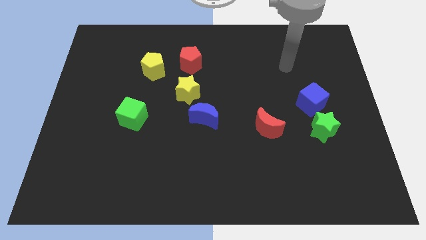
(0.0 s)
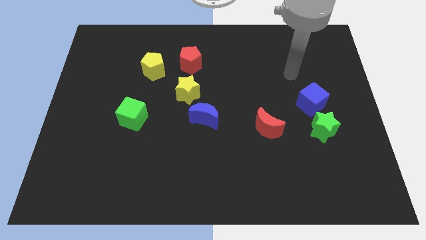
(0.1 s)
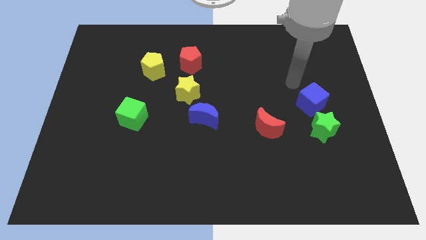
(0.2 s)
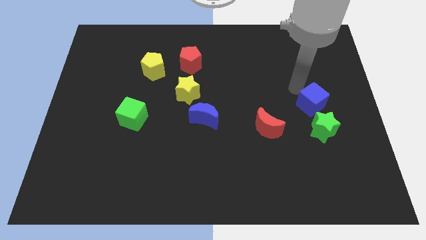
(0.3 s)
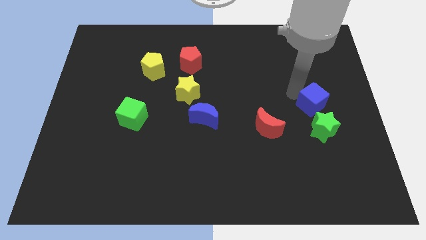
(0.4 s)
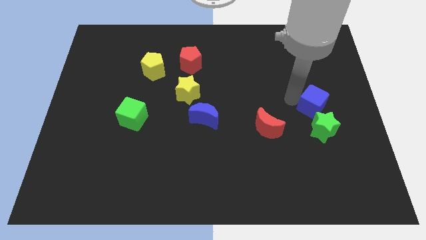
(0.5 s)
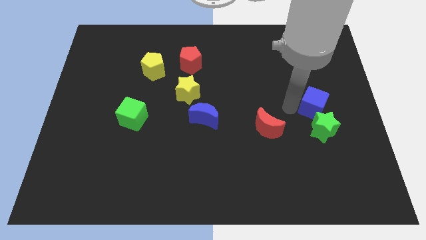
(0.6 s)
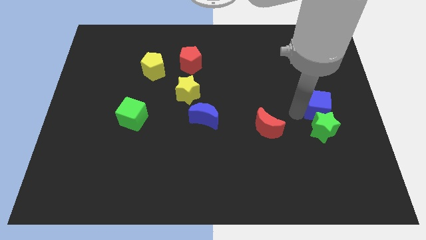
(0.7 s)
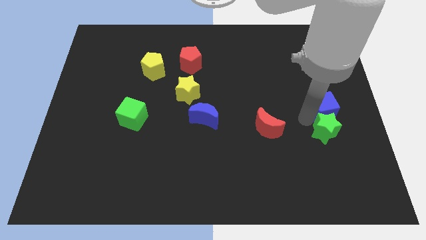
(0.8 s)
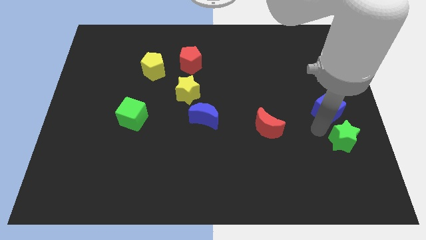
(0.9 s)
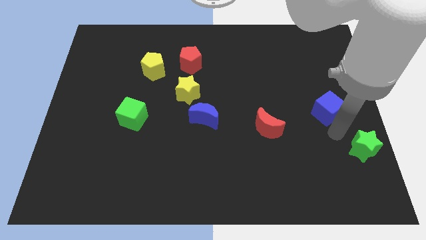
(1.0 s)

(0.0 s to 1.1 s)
separate the blue cube from the green star

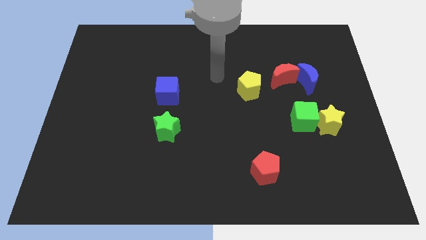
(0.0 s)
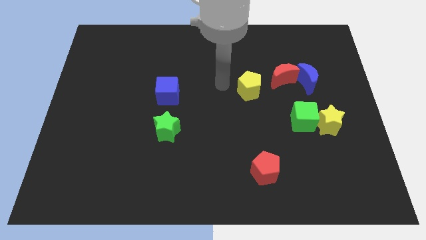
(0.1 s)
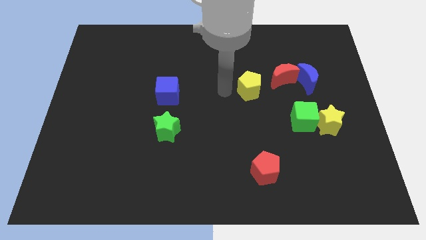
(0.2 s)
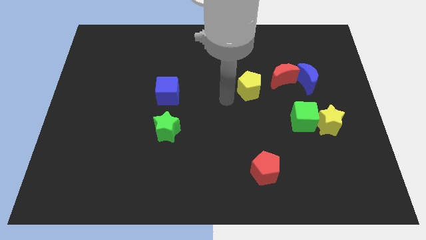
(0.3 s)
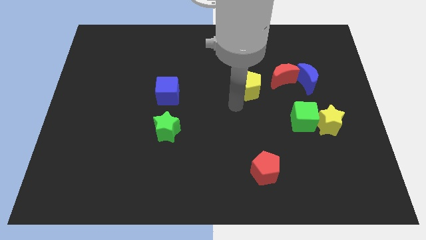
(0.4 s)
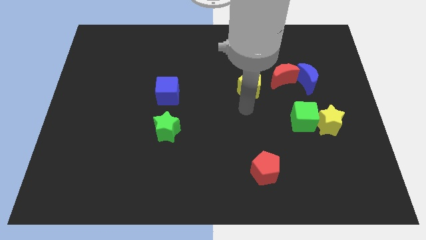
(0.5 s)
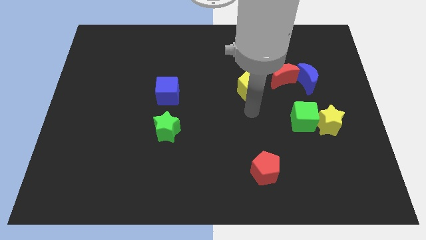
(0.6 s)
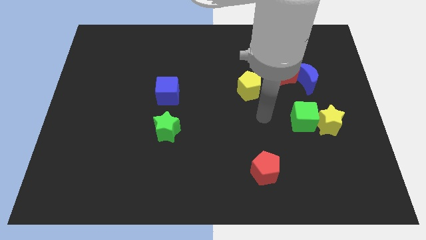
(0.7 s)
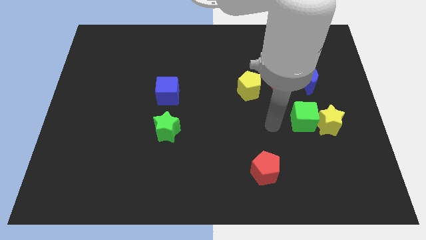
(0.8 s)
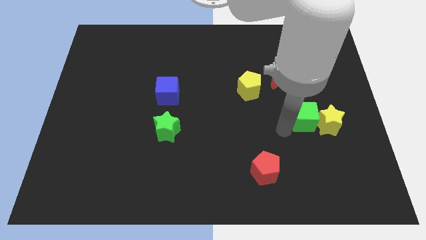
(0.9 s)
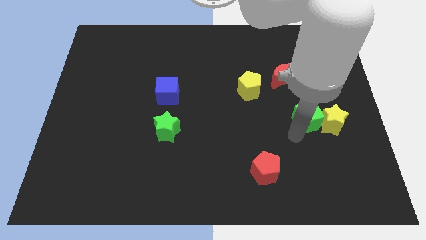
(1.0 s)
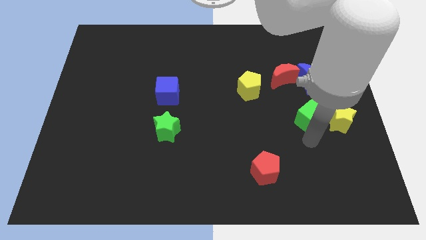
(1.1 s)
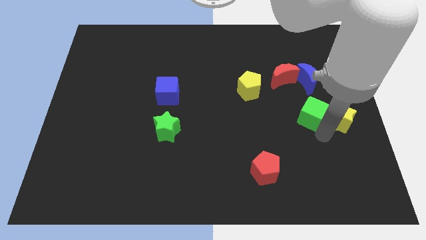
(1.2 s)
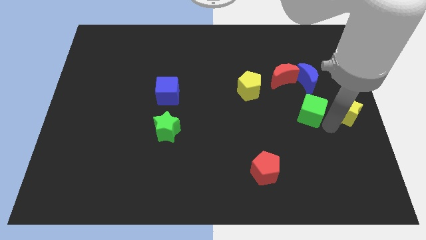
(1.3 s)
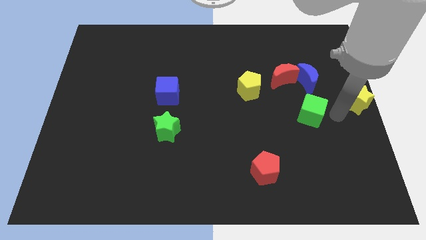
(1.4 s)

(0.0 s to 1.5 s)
move the green cube away from the yellow star

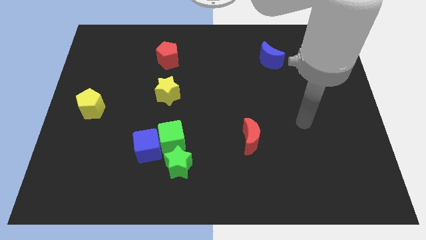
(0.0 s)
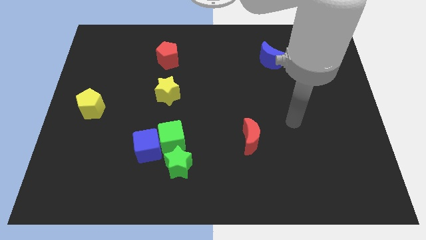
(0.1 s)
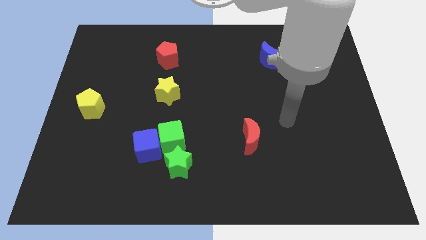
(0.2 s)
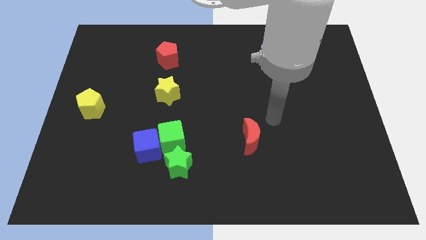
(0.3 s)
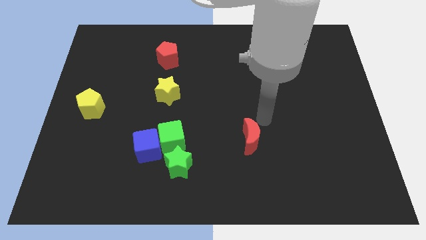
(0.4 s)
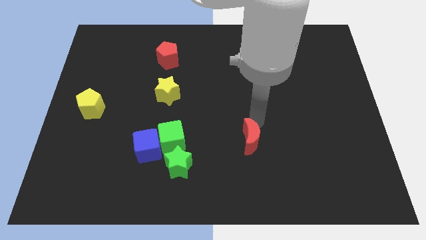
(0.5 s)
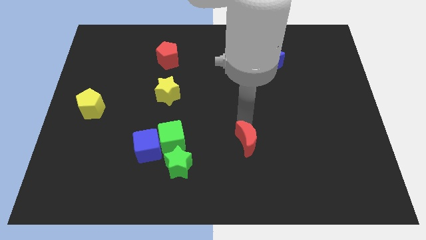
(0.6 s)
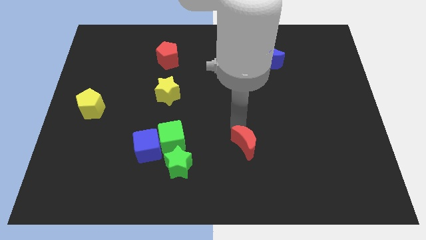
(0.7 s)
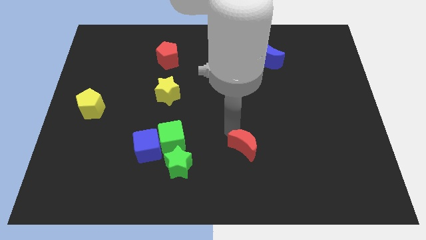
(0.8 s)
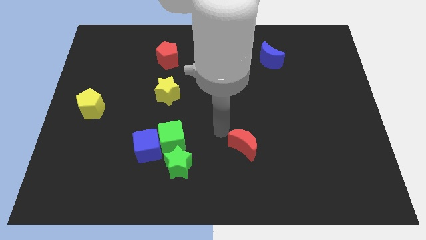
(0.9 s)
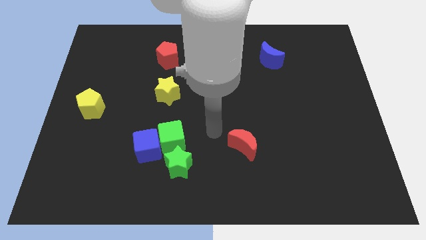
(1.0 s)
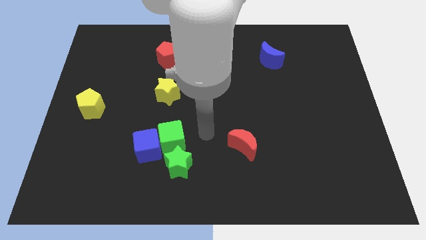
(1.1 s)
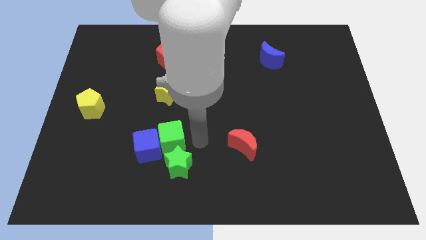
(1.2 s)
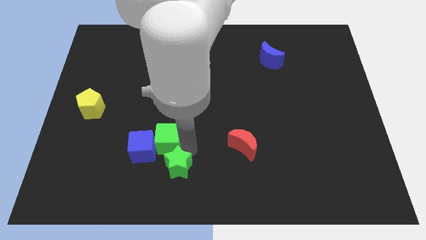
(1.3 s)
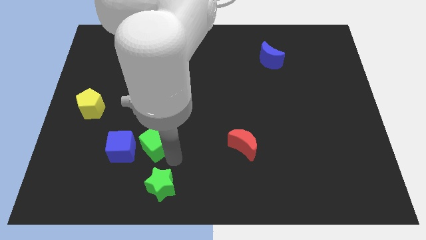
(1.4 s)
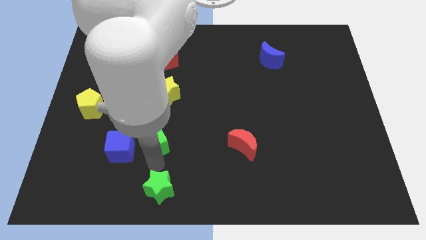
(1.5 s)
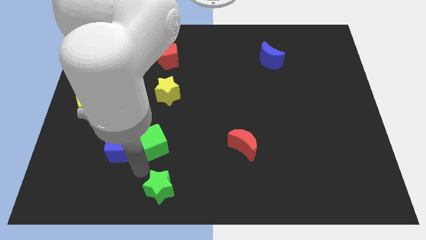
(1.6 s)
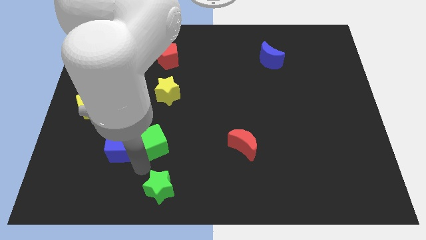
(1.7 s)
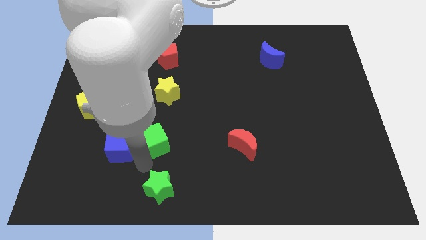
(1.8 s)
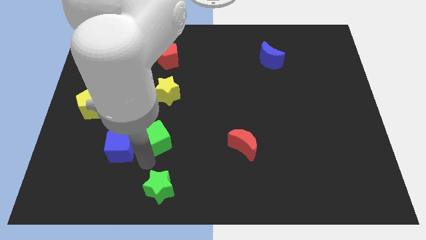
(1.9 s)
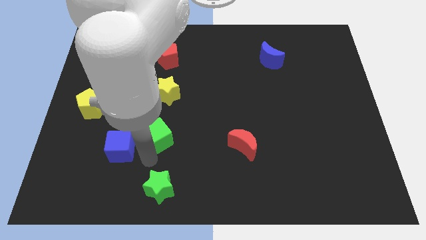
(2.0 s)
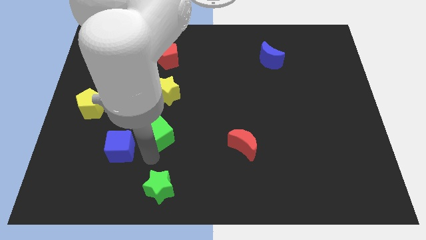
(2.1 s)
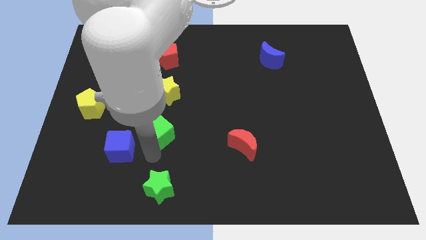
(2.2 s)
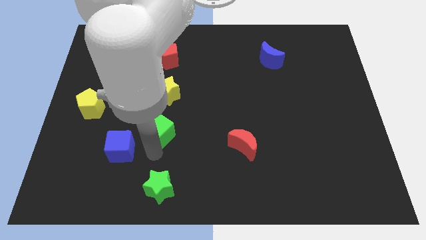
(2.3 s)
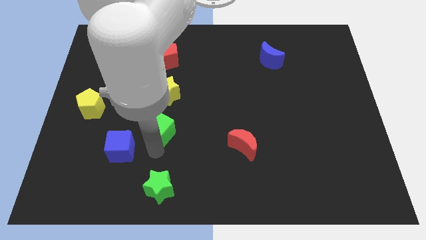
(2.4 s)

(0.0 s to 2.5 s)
pull the green cube apart from the blue cube and green star

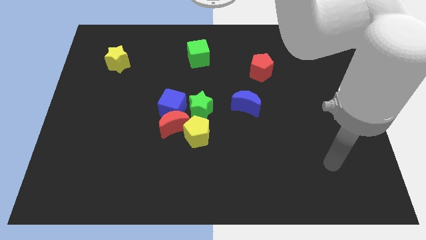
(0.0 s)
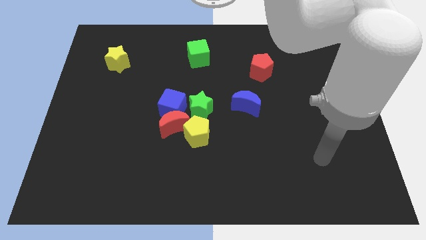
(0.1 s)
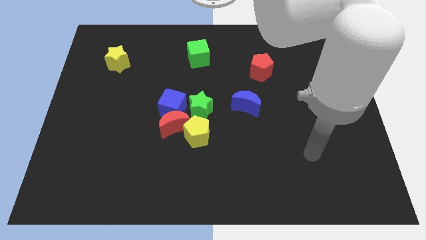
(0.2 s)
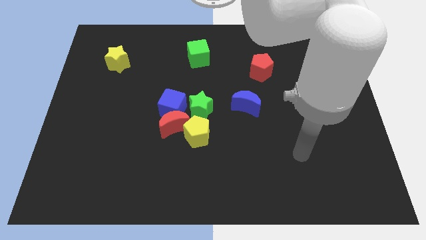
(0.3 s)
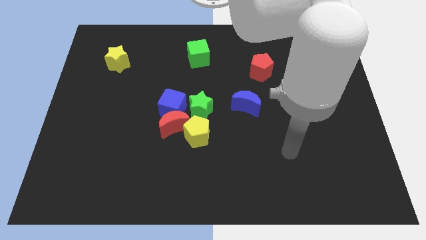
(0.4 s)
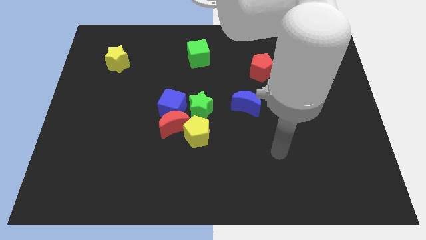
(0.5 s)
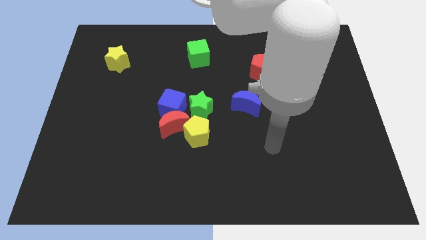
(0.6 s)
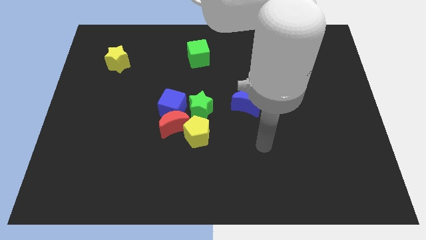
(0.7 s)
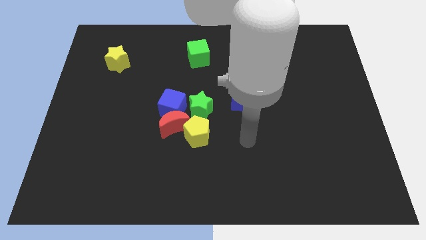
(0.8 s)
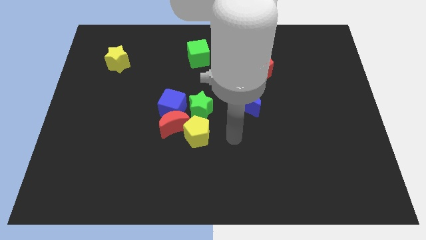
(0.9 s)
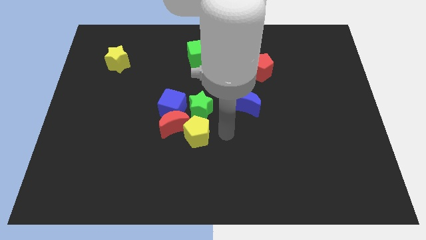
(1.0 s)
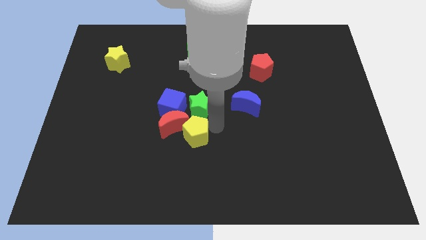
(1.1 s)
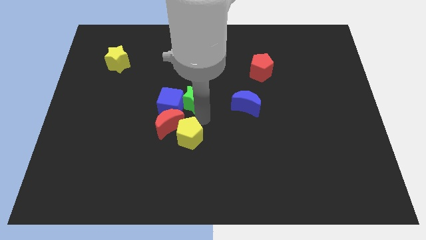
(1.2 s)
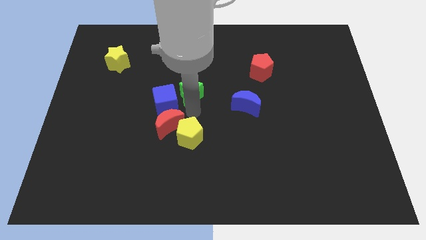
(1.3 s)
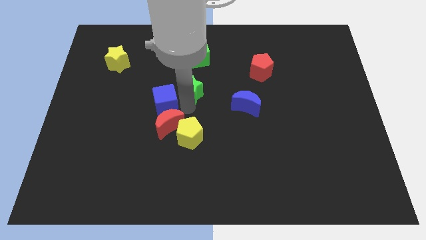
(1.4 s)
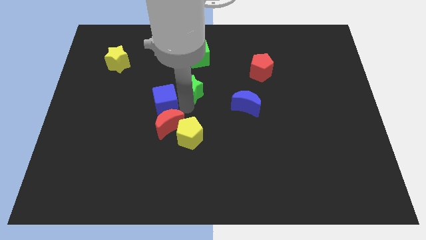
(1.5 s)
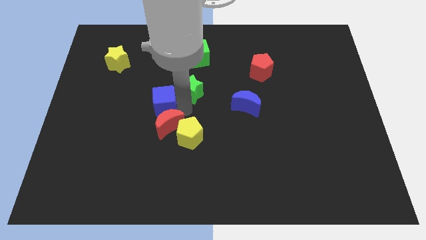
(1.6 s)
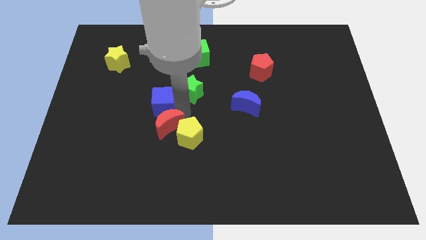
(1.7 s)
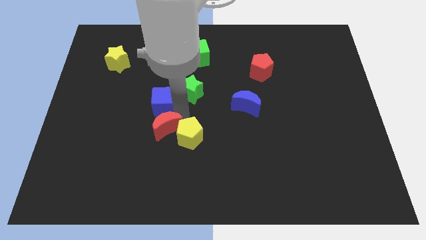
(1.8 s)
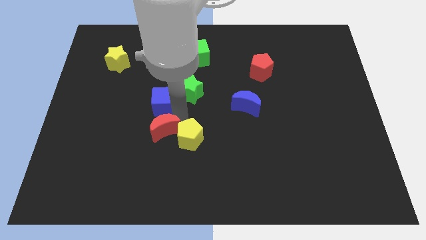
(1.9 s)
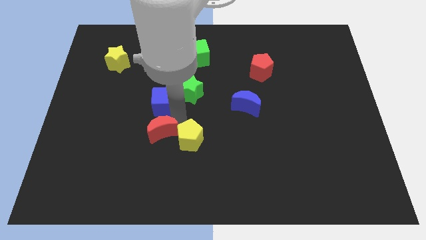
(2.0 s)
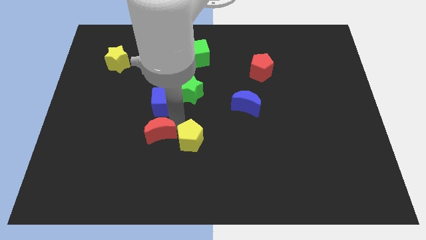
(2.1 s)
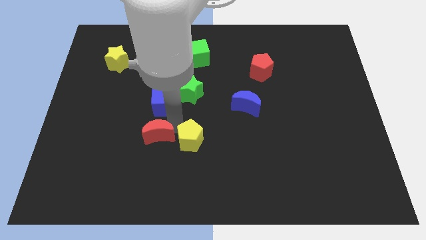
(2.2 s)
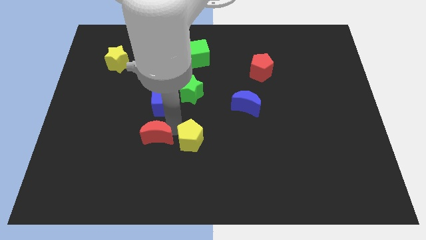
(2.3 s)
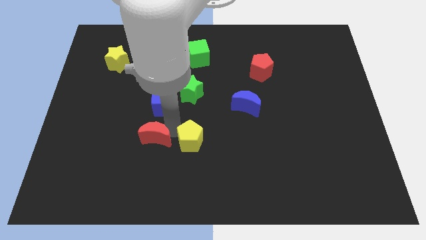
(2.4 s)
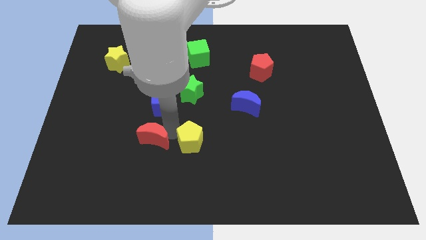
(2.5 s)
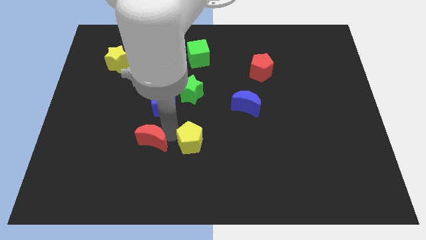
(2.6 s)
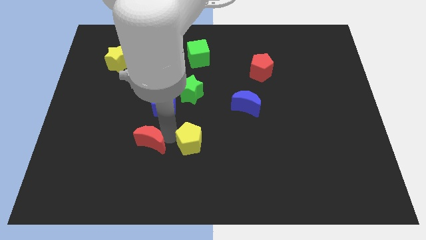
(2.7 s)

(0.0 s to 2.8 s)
pull the red moon apart from the group of blocks

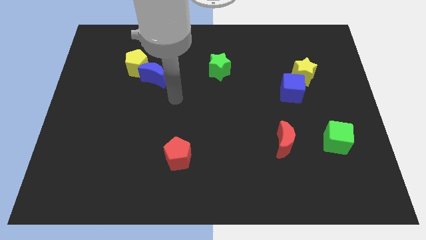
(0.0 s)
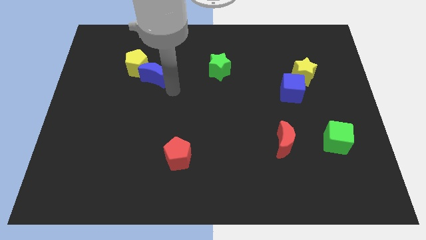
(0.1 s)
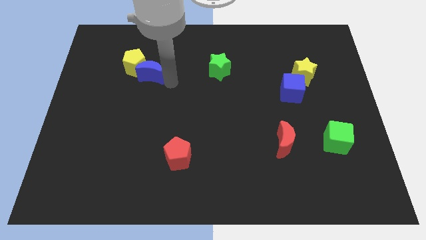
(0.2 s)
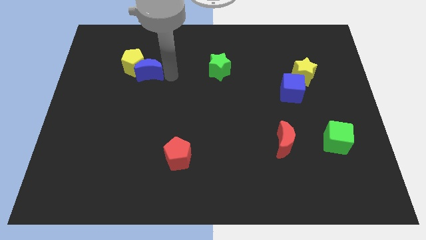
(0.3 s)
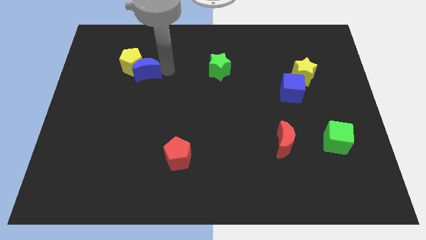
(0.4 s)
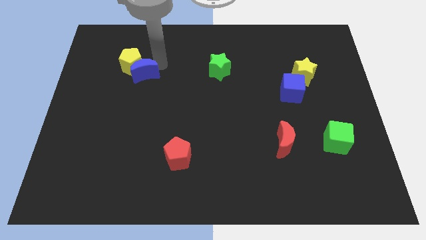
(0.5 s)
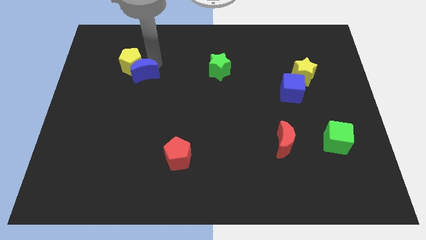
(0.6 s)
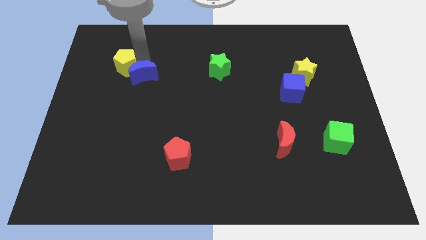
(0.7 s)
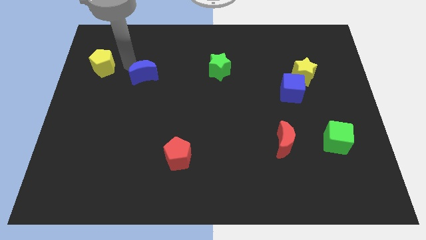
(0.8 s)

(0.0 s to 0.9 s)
separate the blue moon from the yellow pentagon

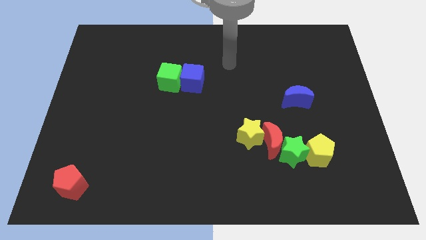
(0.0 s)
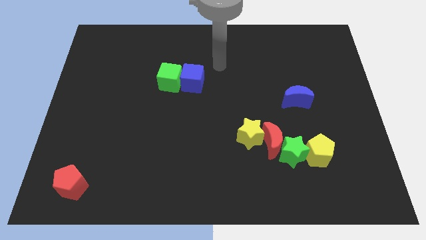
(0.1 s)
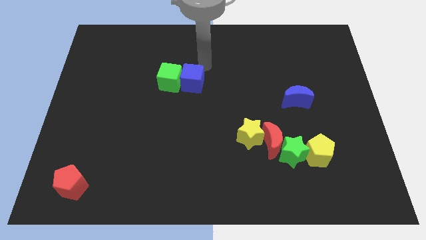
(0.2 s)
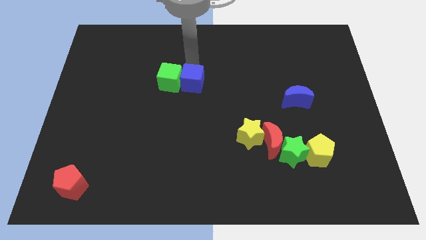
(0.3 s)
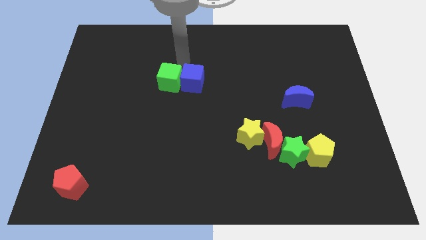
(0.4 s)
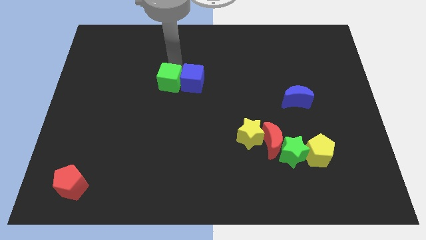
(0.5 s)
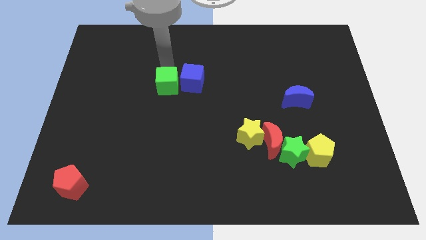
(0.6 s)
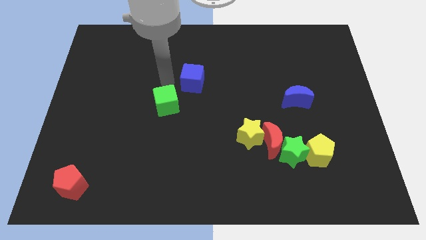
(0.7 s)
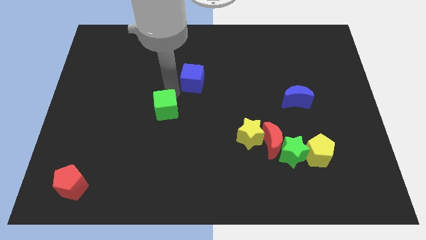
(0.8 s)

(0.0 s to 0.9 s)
separate the blue cube from the green cube
